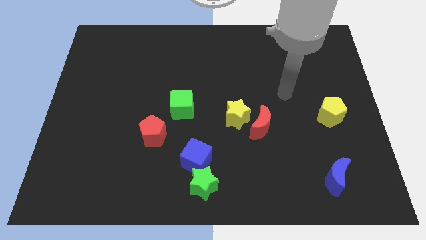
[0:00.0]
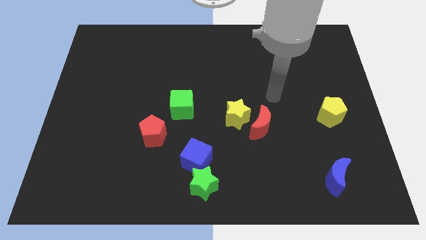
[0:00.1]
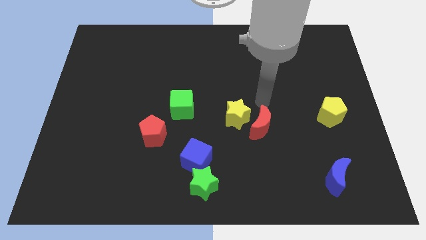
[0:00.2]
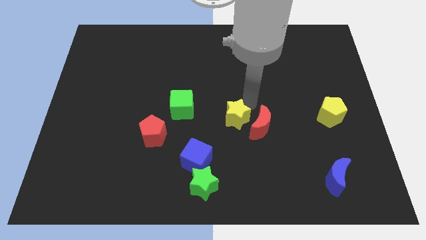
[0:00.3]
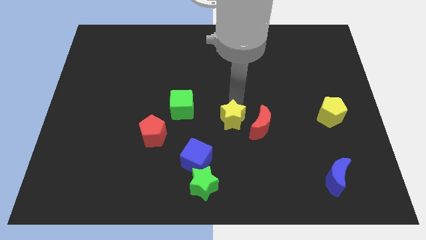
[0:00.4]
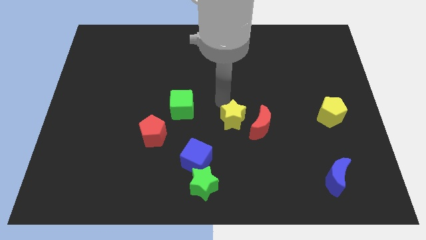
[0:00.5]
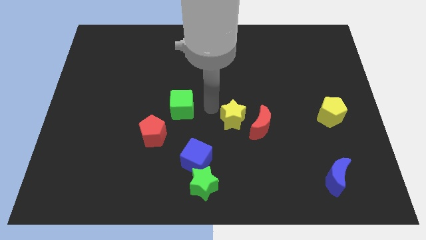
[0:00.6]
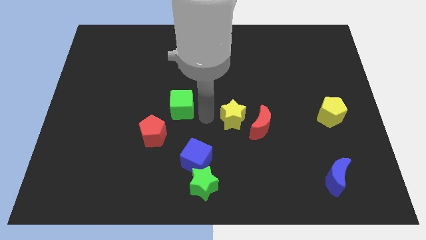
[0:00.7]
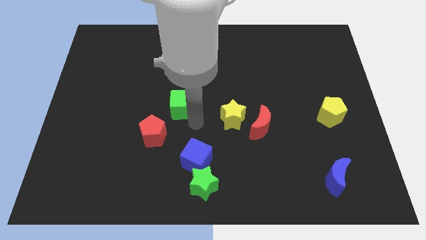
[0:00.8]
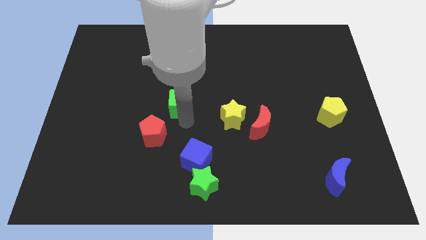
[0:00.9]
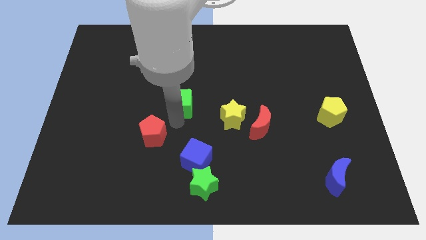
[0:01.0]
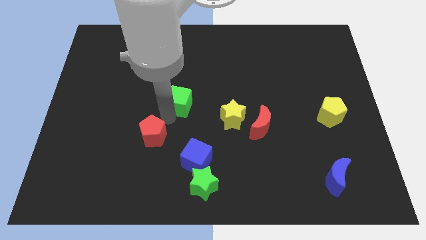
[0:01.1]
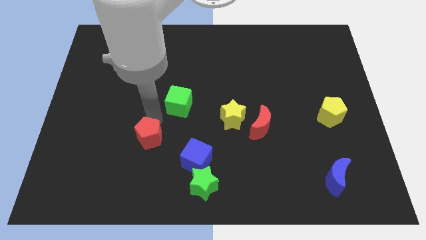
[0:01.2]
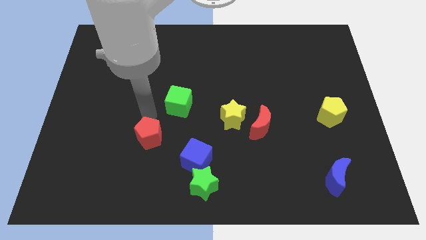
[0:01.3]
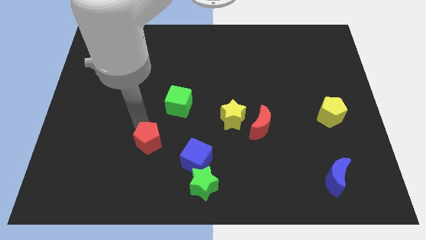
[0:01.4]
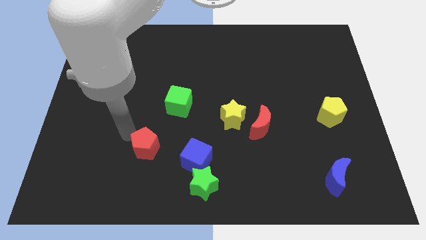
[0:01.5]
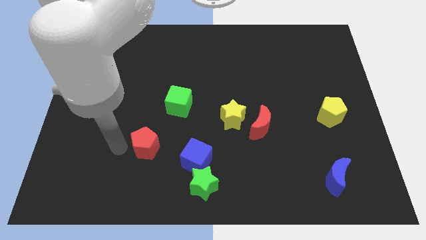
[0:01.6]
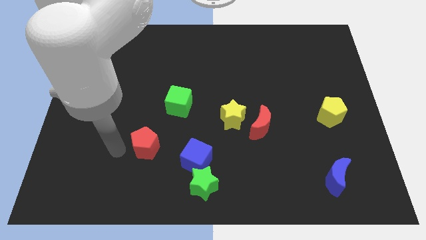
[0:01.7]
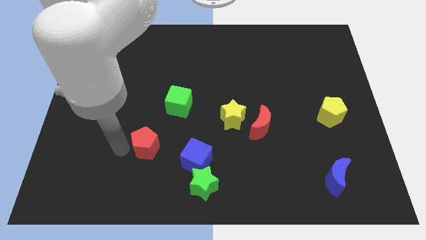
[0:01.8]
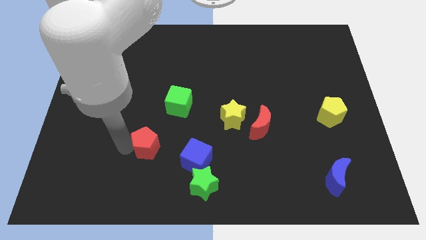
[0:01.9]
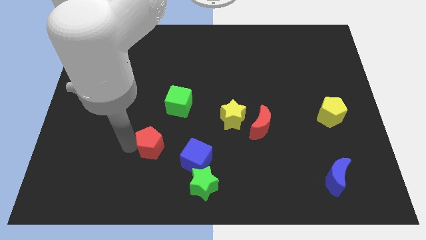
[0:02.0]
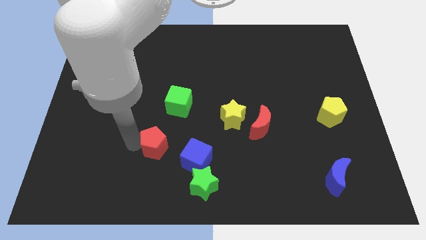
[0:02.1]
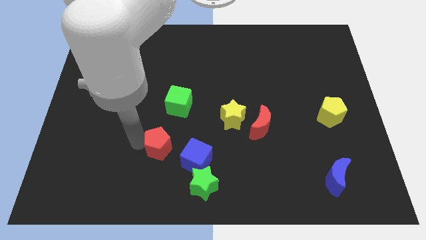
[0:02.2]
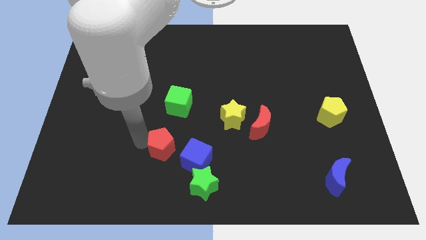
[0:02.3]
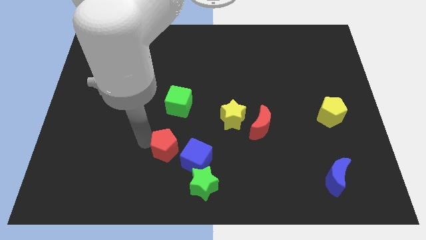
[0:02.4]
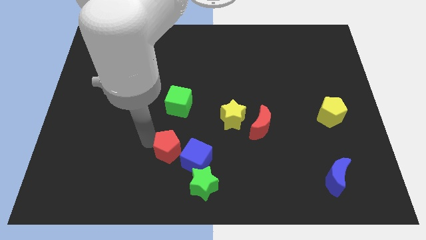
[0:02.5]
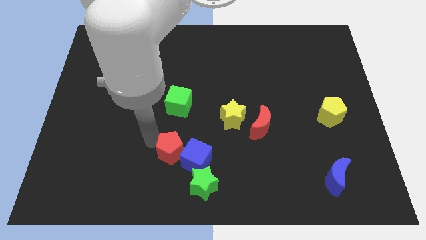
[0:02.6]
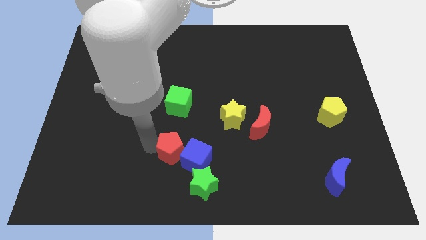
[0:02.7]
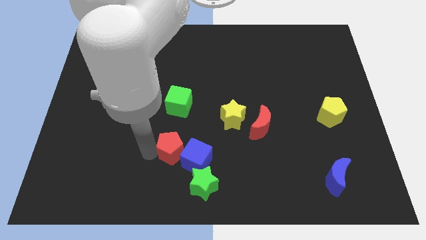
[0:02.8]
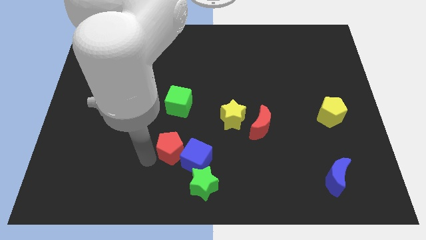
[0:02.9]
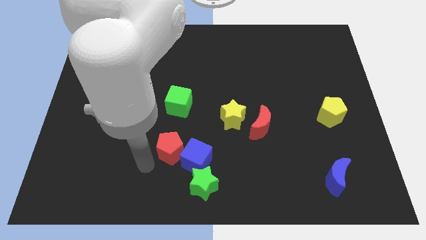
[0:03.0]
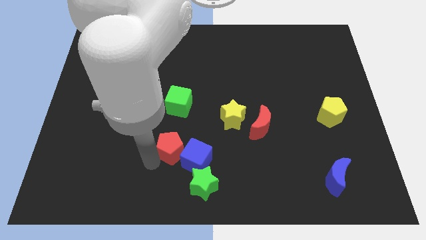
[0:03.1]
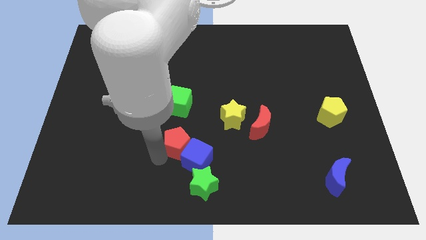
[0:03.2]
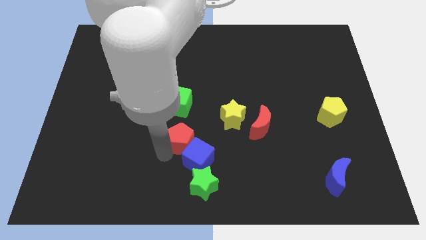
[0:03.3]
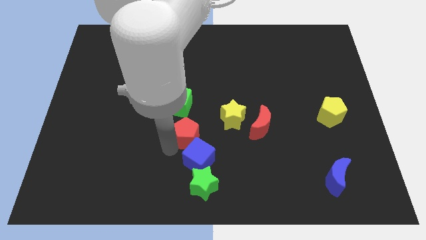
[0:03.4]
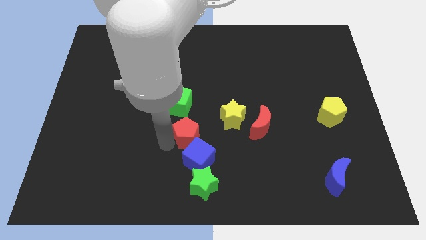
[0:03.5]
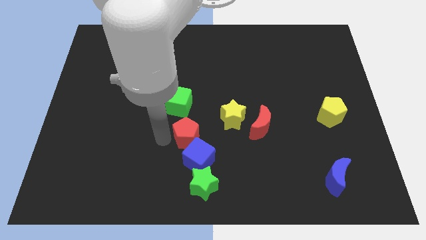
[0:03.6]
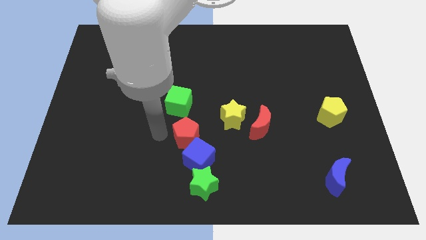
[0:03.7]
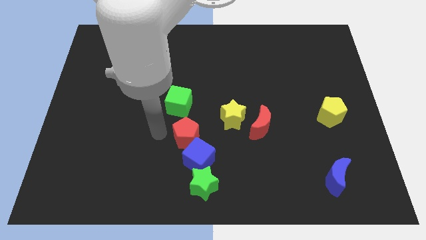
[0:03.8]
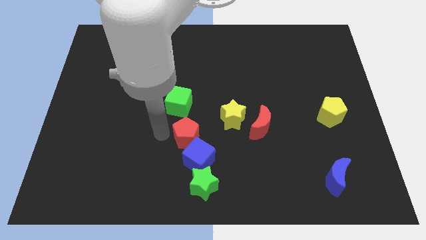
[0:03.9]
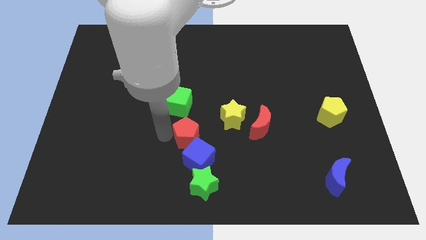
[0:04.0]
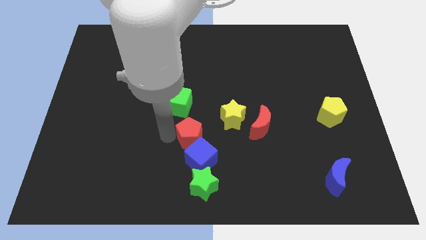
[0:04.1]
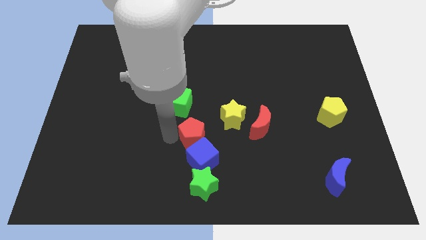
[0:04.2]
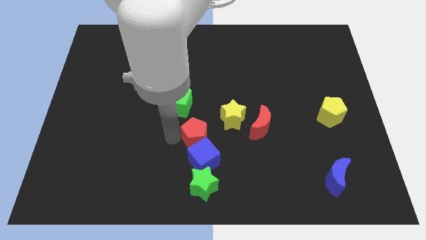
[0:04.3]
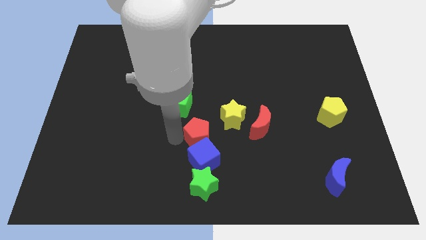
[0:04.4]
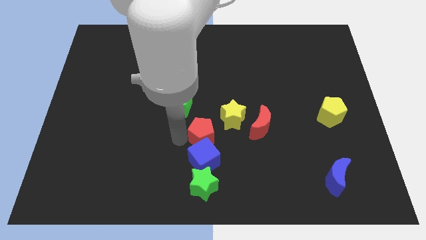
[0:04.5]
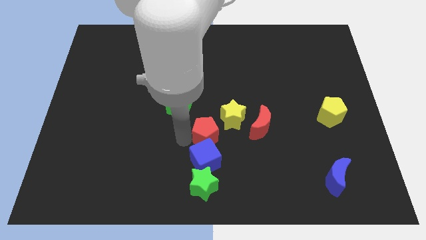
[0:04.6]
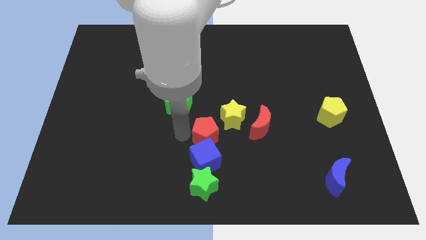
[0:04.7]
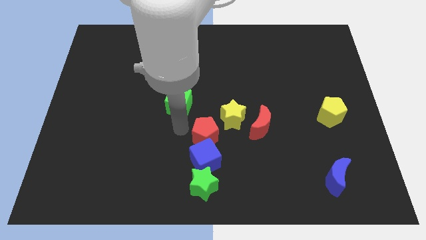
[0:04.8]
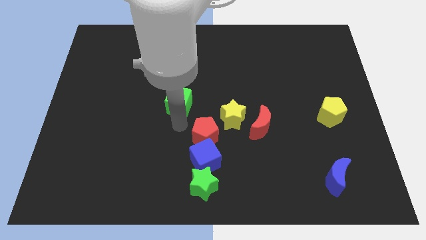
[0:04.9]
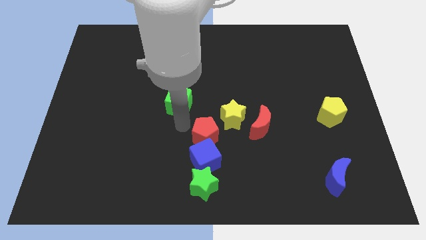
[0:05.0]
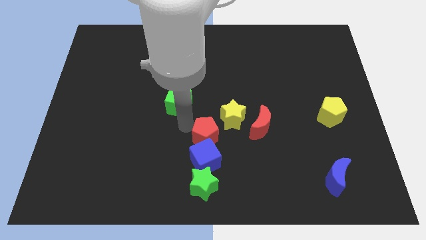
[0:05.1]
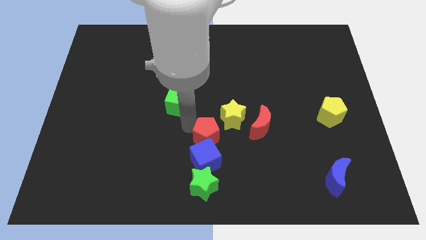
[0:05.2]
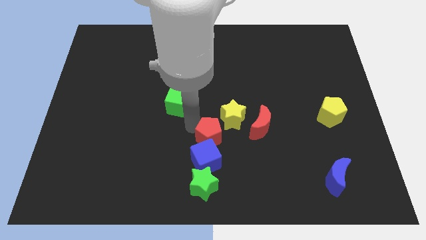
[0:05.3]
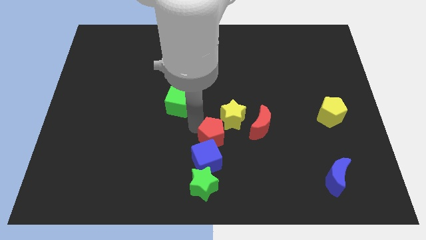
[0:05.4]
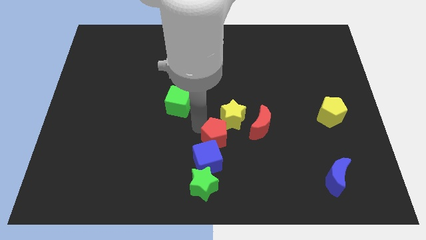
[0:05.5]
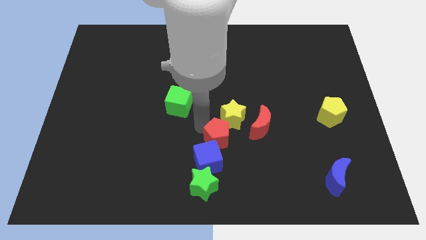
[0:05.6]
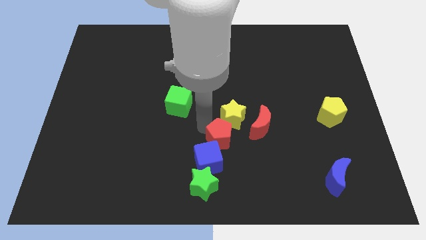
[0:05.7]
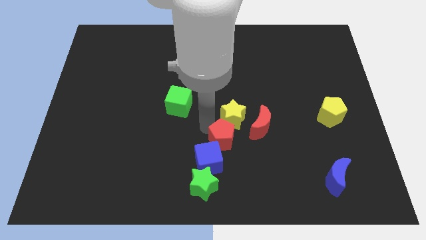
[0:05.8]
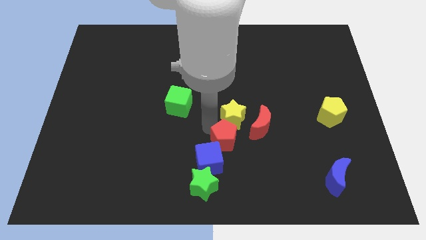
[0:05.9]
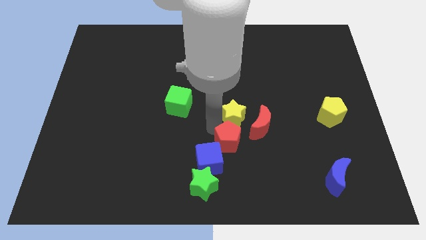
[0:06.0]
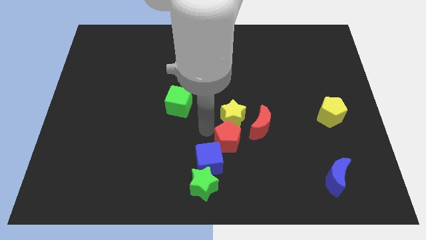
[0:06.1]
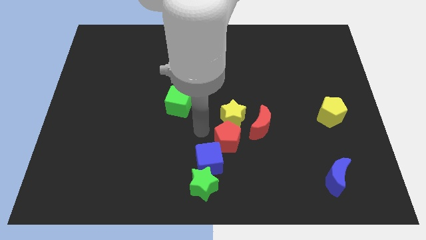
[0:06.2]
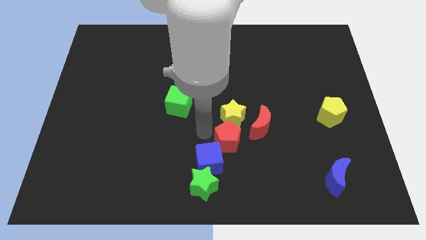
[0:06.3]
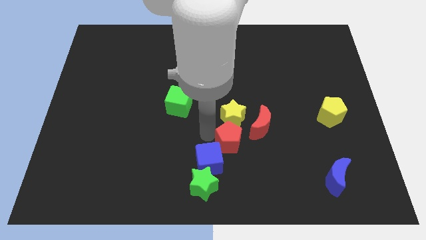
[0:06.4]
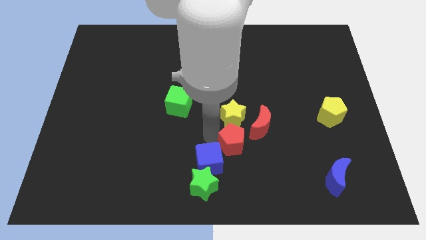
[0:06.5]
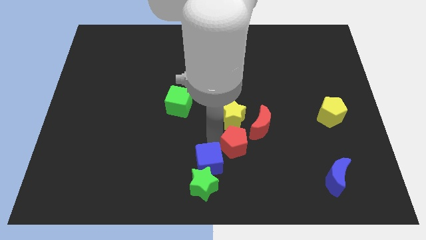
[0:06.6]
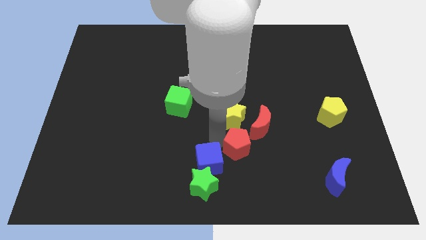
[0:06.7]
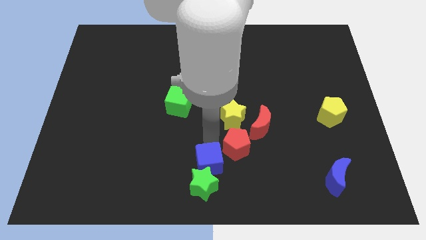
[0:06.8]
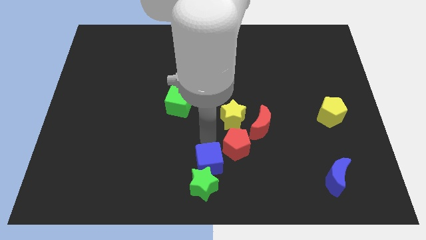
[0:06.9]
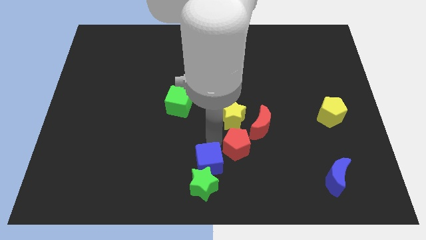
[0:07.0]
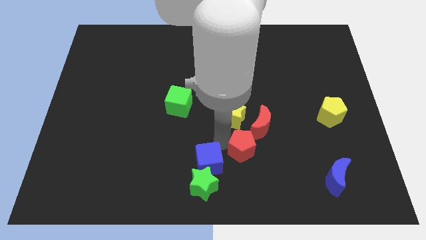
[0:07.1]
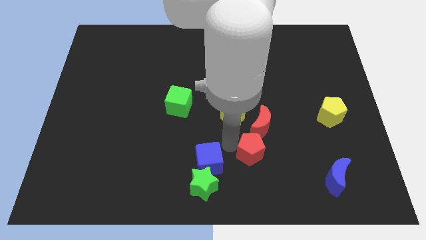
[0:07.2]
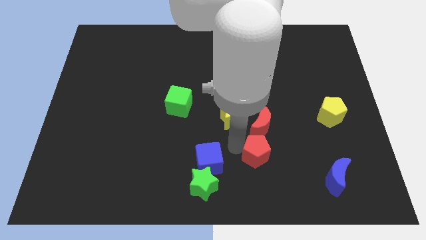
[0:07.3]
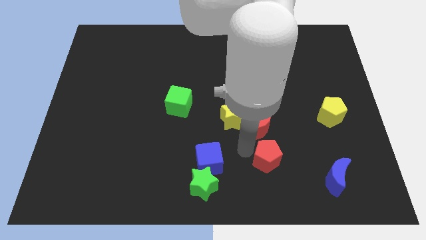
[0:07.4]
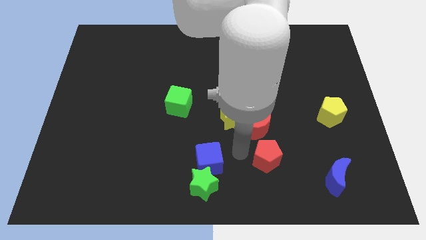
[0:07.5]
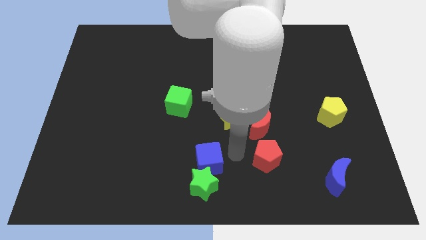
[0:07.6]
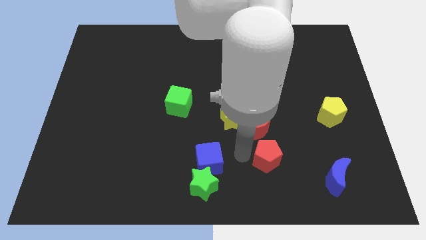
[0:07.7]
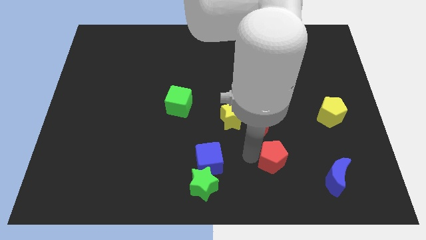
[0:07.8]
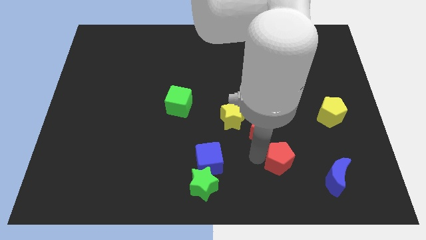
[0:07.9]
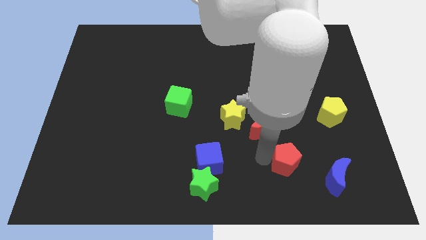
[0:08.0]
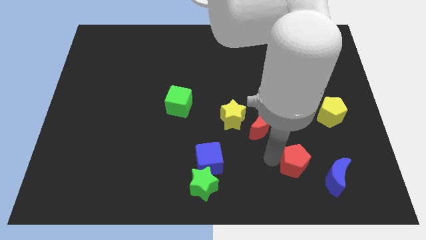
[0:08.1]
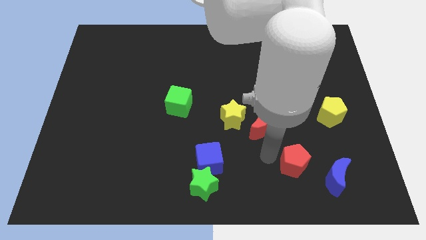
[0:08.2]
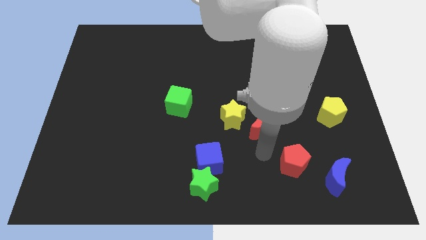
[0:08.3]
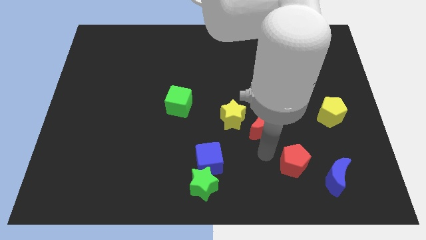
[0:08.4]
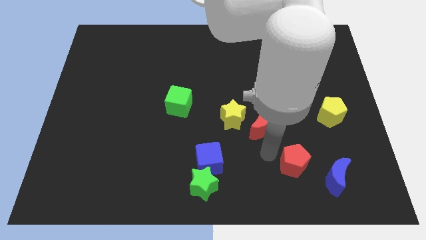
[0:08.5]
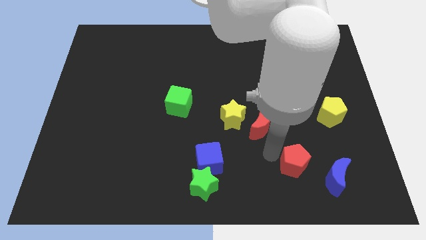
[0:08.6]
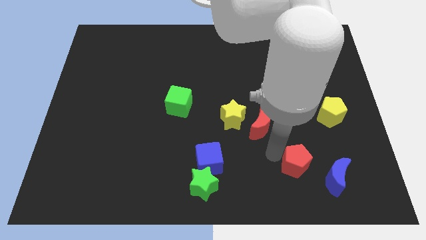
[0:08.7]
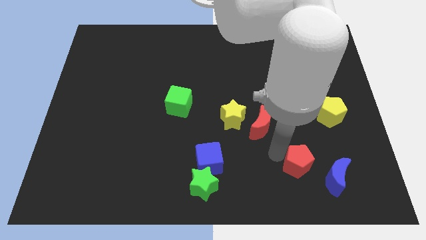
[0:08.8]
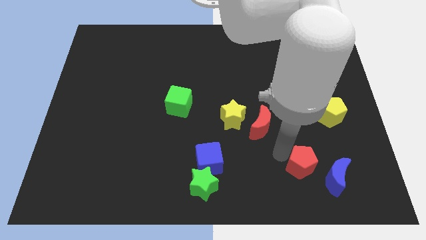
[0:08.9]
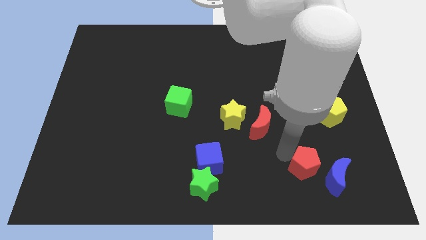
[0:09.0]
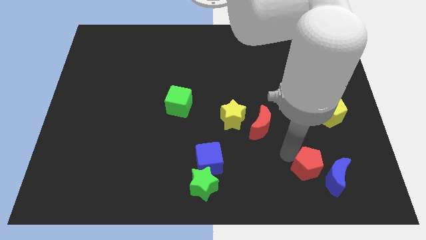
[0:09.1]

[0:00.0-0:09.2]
put the red pentagon close to the blue moon
